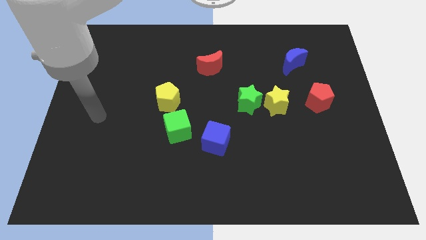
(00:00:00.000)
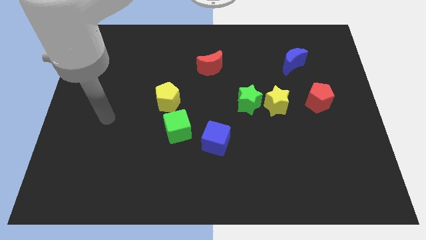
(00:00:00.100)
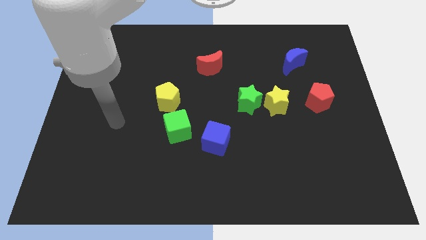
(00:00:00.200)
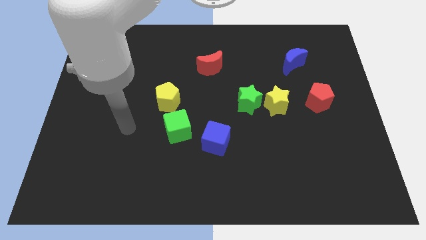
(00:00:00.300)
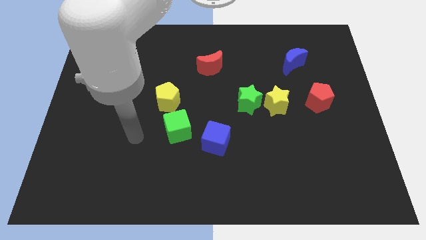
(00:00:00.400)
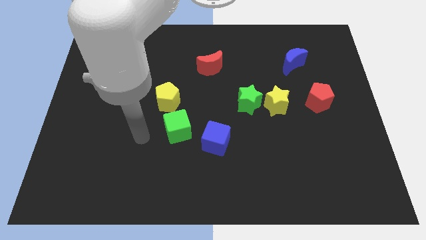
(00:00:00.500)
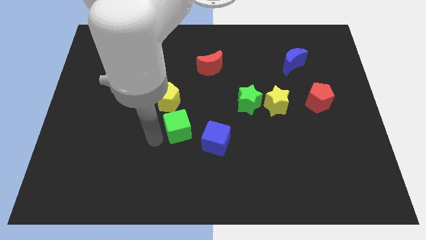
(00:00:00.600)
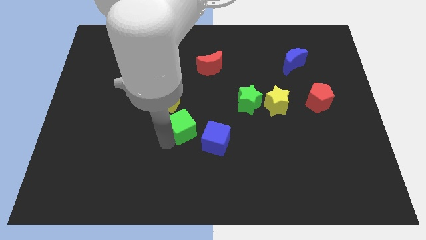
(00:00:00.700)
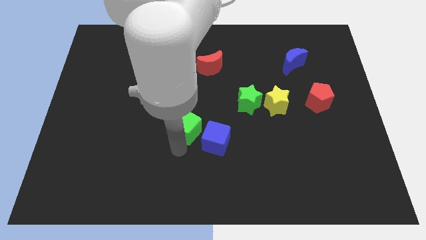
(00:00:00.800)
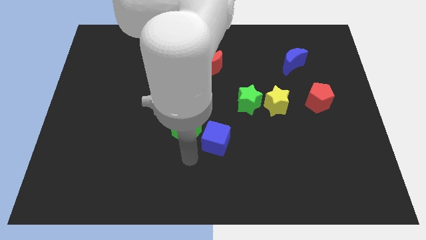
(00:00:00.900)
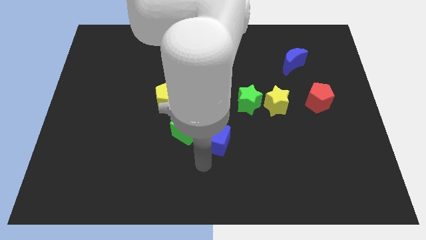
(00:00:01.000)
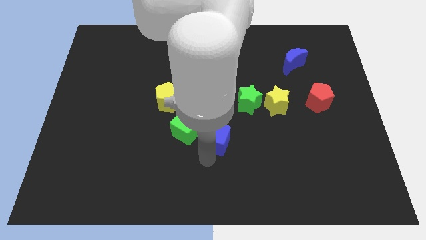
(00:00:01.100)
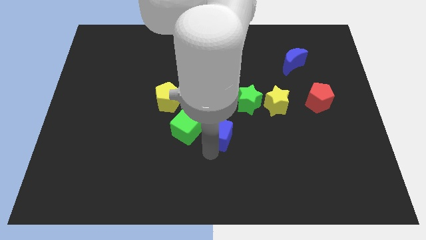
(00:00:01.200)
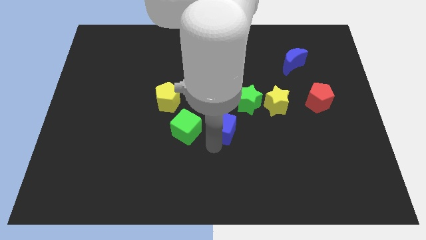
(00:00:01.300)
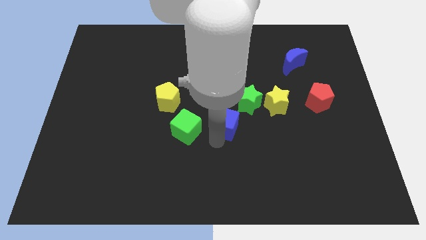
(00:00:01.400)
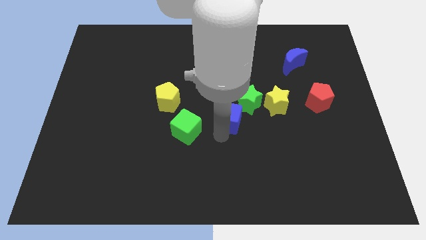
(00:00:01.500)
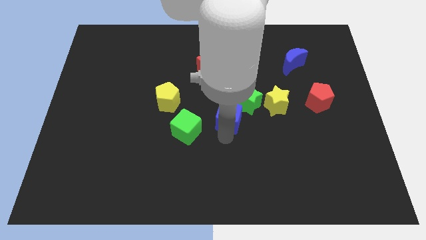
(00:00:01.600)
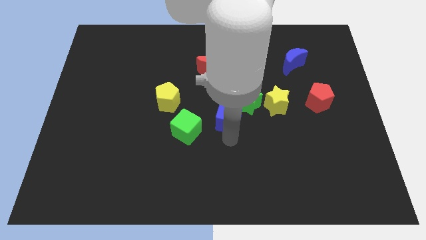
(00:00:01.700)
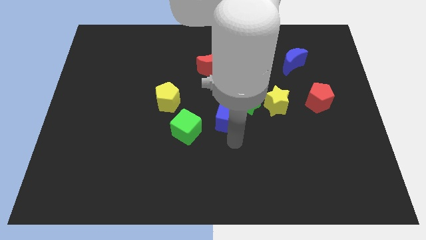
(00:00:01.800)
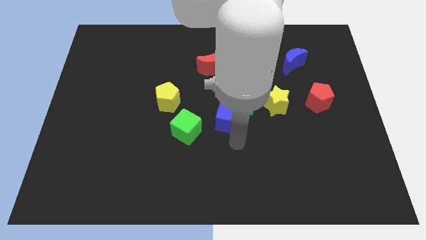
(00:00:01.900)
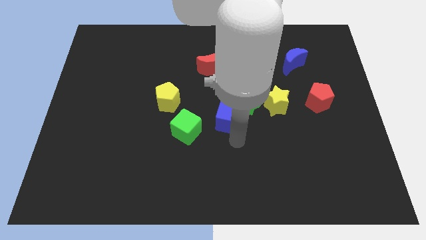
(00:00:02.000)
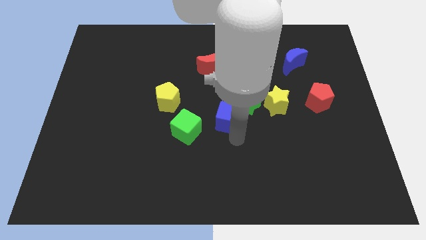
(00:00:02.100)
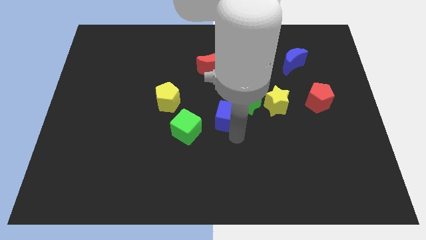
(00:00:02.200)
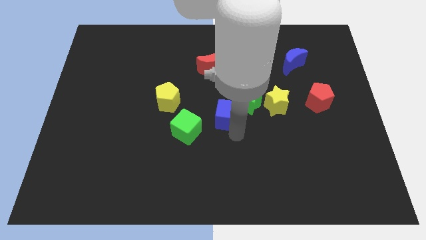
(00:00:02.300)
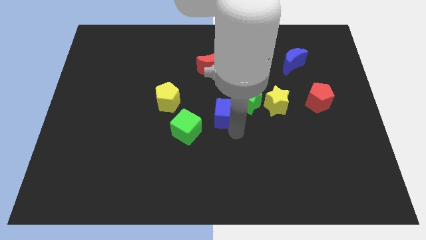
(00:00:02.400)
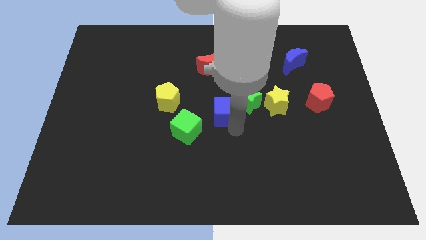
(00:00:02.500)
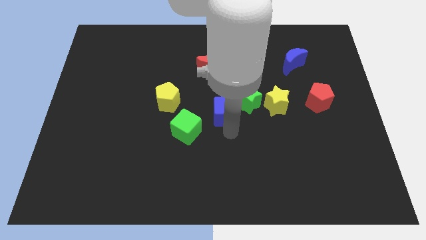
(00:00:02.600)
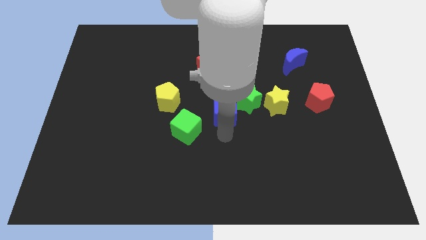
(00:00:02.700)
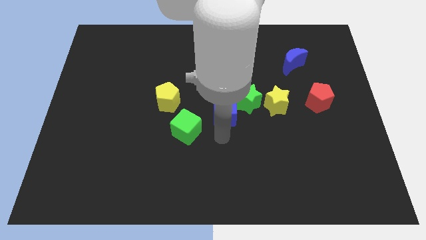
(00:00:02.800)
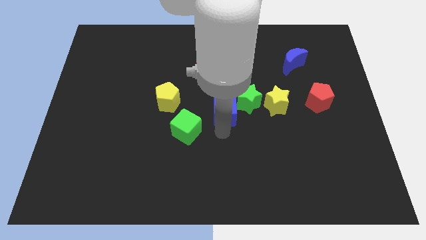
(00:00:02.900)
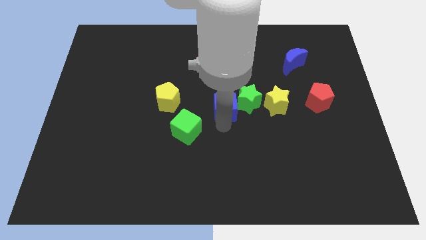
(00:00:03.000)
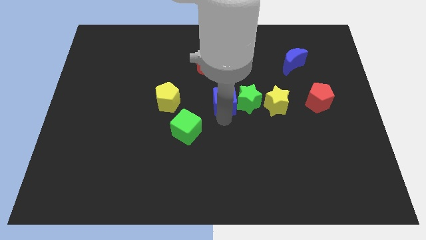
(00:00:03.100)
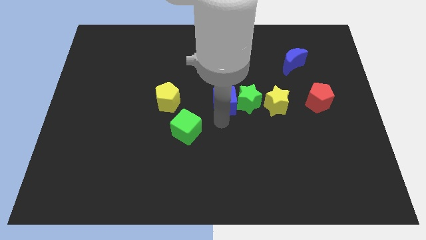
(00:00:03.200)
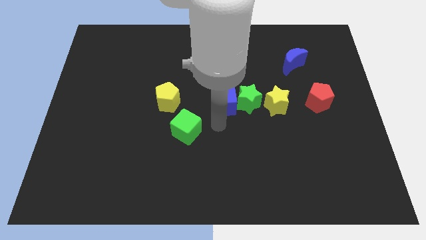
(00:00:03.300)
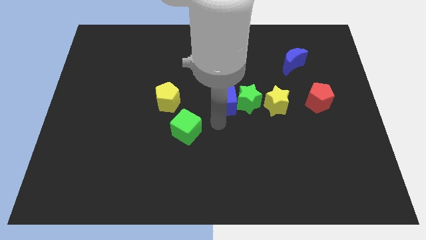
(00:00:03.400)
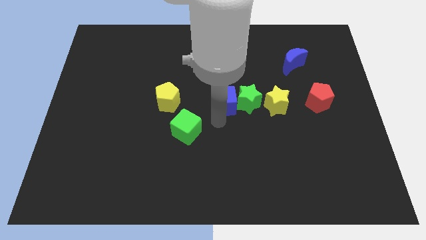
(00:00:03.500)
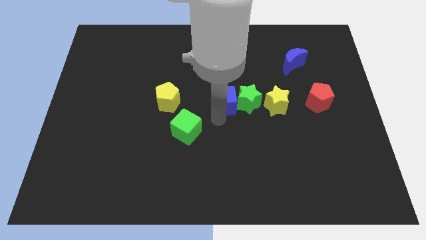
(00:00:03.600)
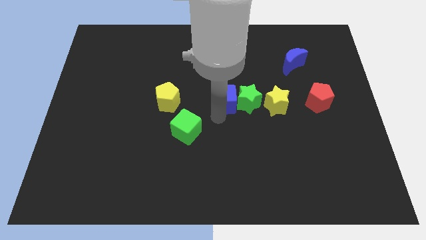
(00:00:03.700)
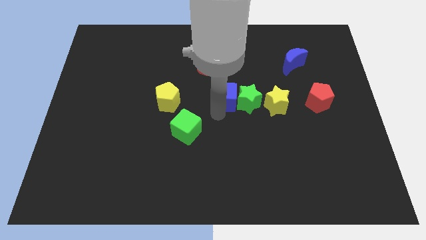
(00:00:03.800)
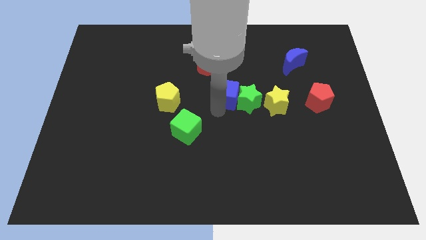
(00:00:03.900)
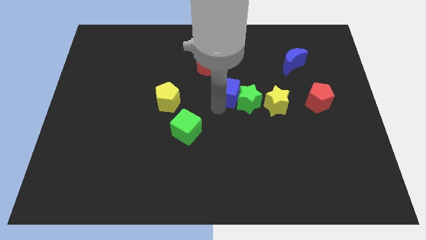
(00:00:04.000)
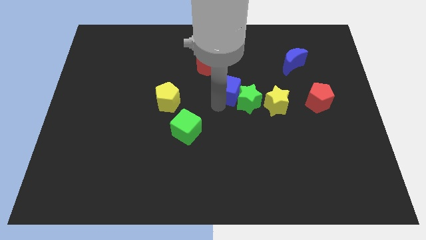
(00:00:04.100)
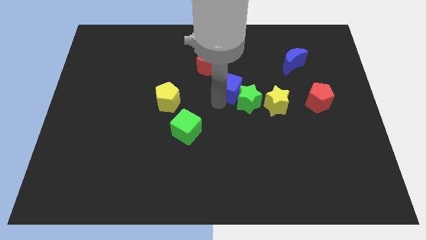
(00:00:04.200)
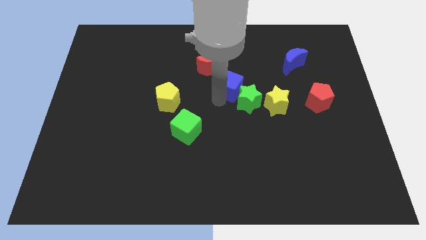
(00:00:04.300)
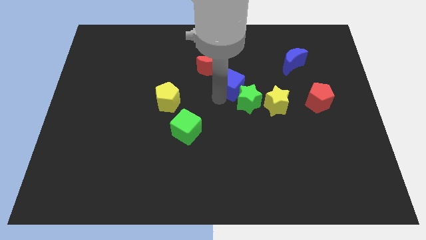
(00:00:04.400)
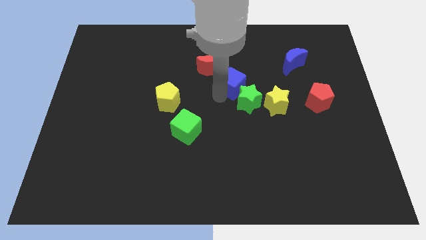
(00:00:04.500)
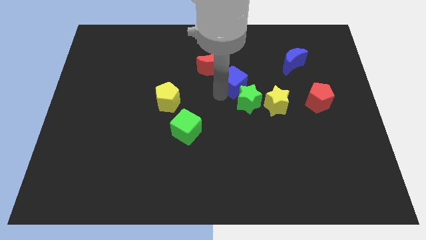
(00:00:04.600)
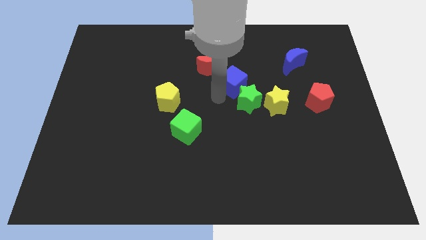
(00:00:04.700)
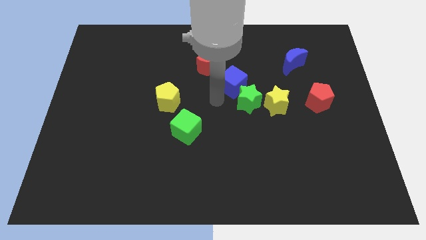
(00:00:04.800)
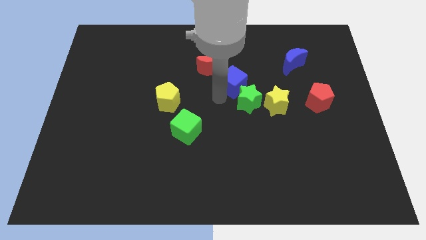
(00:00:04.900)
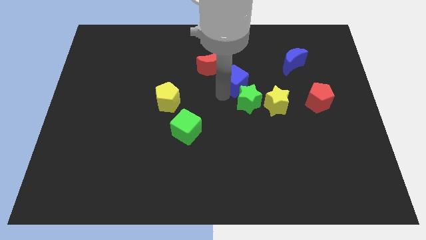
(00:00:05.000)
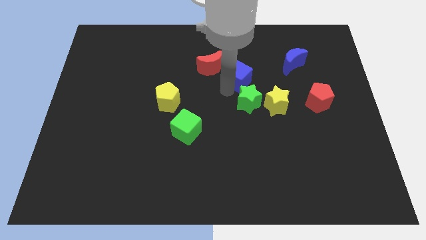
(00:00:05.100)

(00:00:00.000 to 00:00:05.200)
push the blue cube to the right side of the red moon

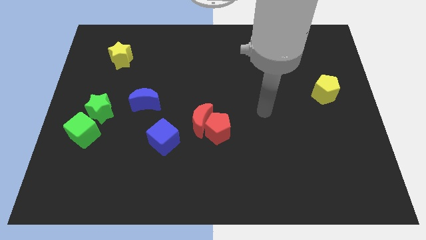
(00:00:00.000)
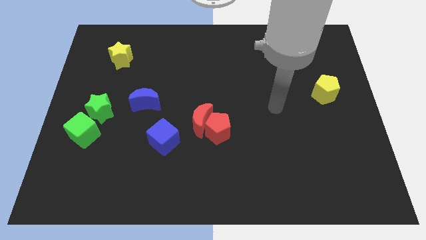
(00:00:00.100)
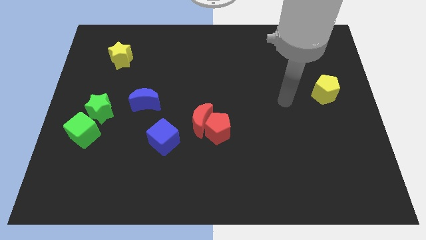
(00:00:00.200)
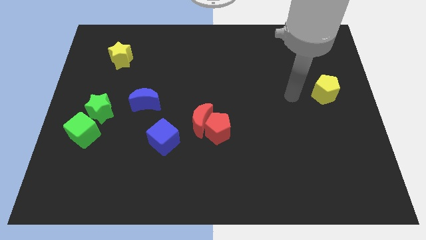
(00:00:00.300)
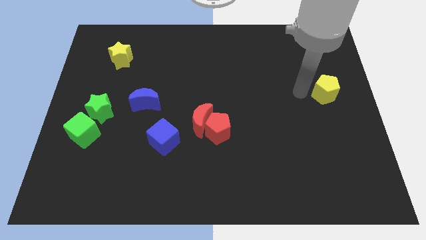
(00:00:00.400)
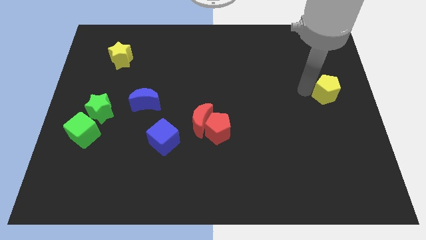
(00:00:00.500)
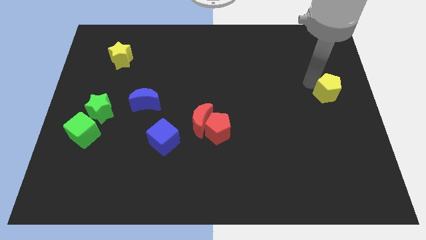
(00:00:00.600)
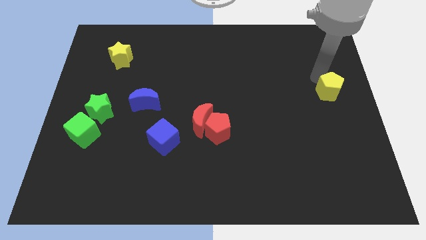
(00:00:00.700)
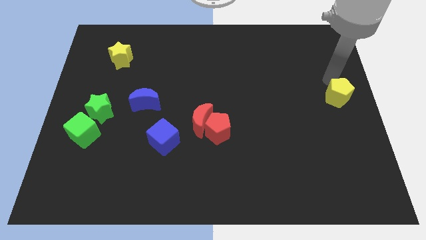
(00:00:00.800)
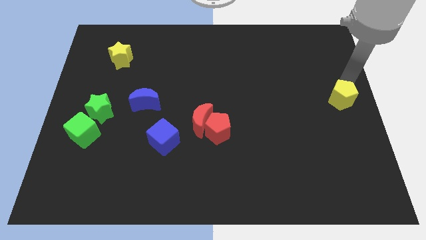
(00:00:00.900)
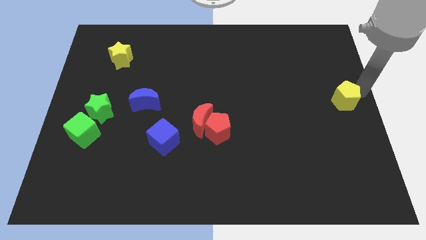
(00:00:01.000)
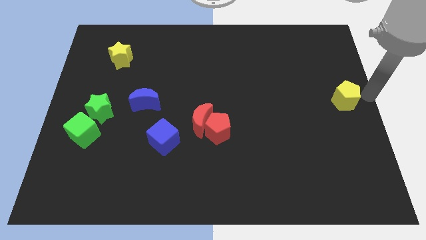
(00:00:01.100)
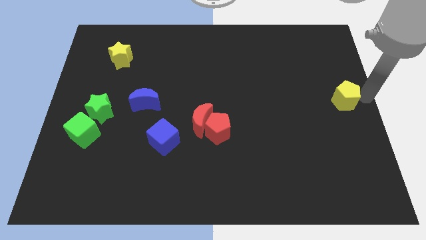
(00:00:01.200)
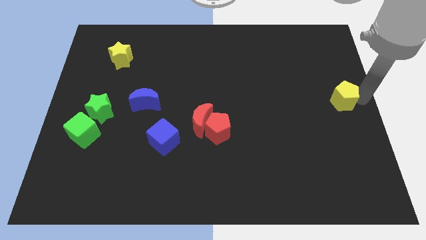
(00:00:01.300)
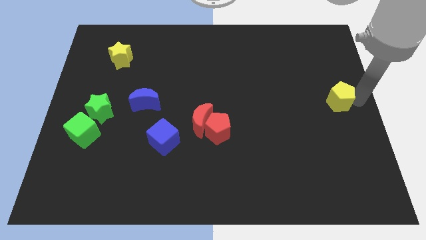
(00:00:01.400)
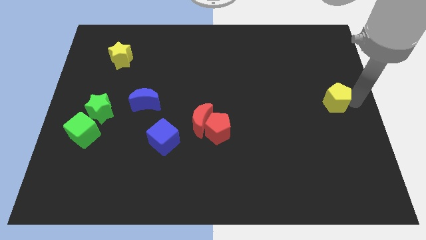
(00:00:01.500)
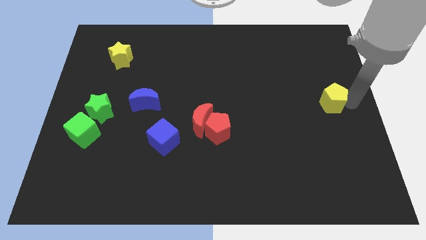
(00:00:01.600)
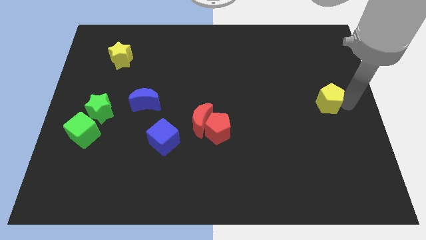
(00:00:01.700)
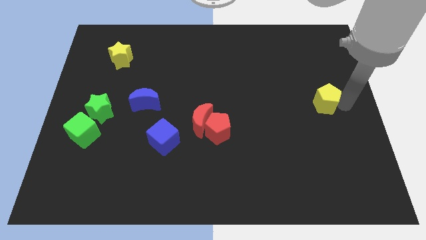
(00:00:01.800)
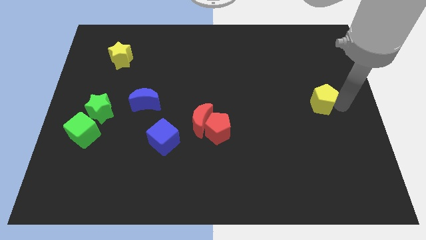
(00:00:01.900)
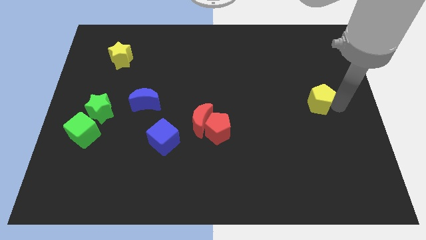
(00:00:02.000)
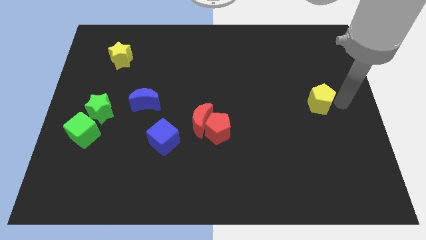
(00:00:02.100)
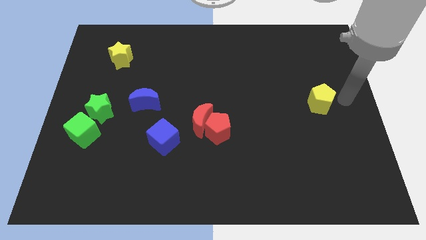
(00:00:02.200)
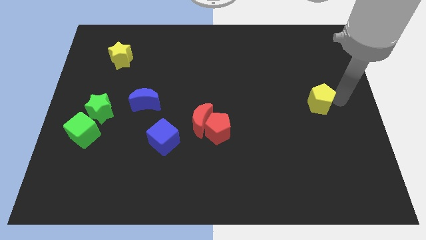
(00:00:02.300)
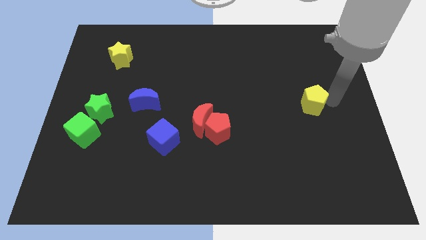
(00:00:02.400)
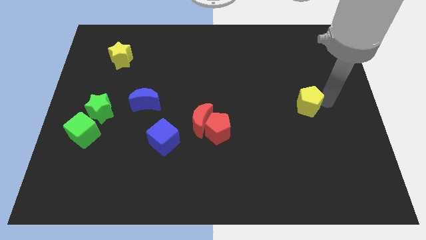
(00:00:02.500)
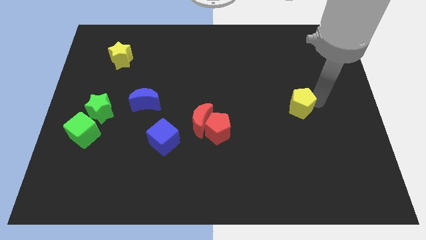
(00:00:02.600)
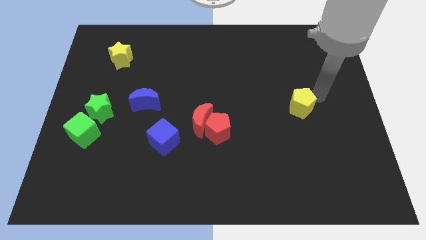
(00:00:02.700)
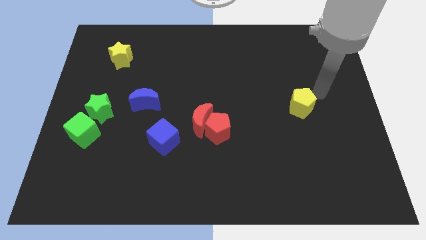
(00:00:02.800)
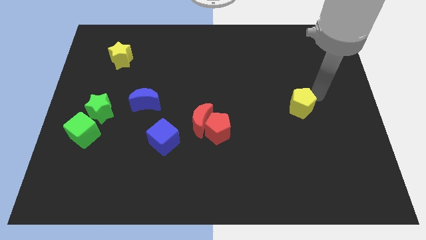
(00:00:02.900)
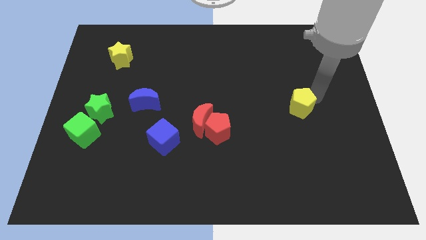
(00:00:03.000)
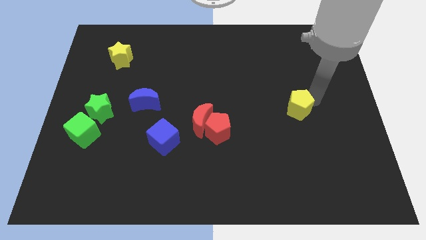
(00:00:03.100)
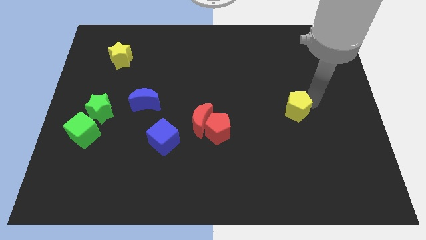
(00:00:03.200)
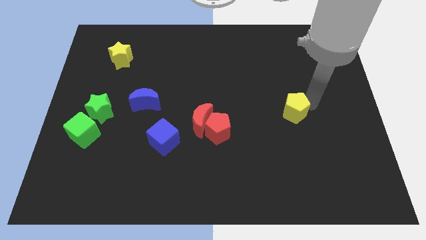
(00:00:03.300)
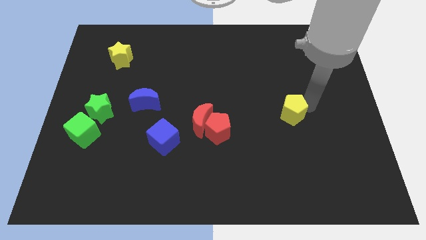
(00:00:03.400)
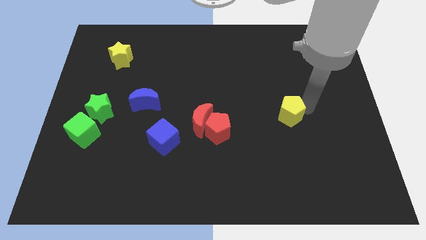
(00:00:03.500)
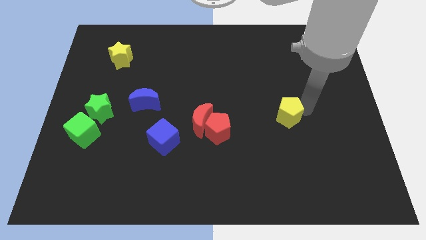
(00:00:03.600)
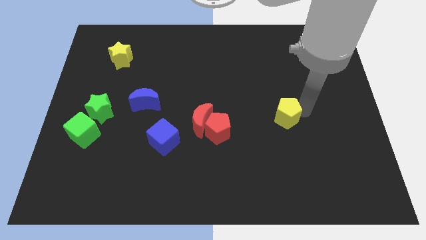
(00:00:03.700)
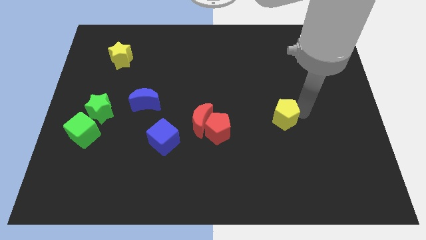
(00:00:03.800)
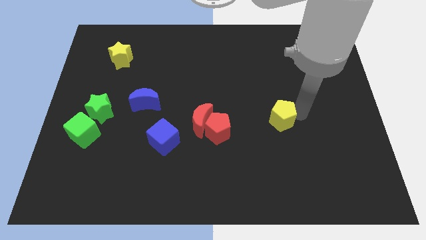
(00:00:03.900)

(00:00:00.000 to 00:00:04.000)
push the yellow pentagon to the right side of the red pentagon
